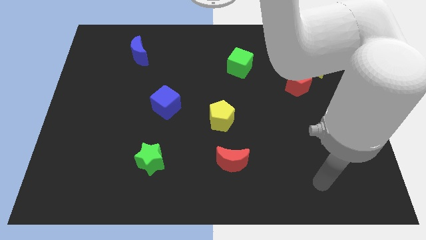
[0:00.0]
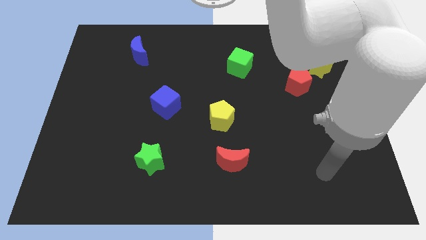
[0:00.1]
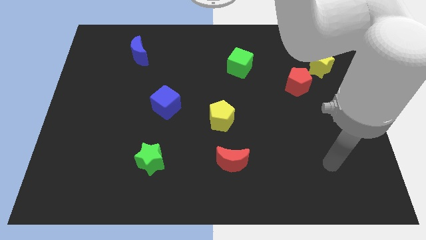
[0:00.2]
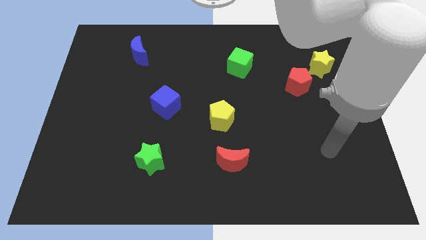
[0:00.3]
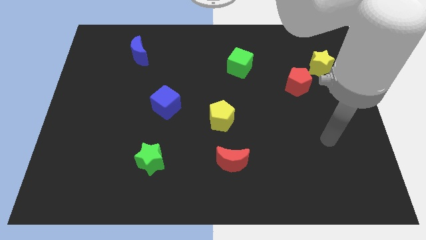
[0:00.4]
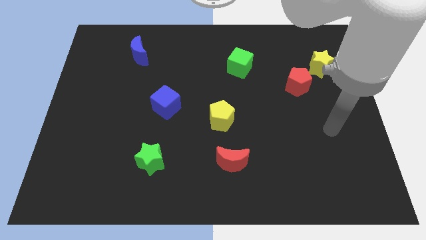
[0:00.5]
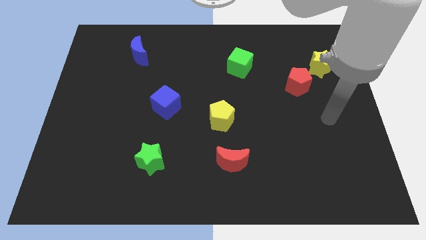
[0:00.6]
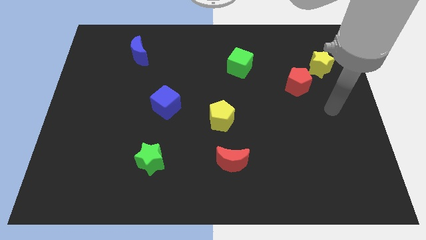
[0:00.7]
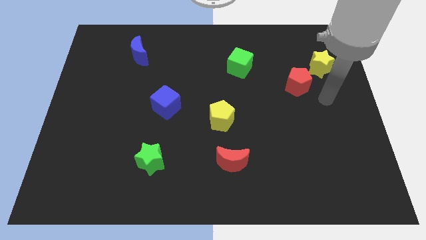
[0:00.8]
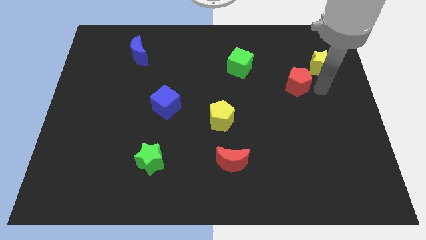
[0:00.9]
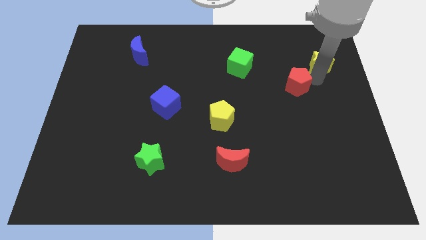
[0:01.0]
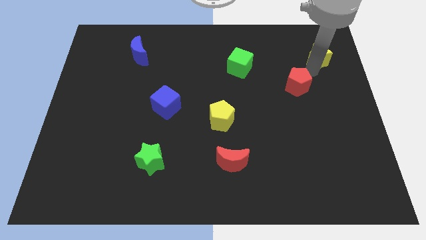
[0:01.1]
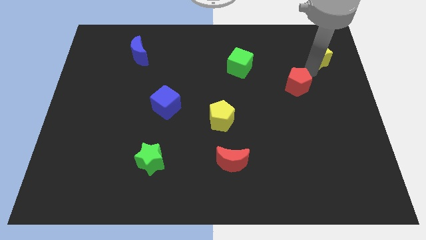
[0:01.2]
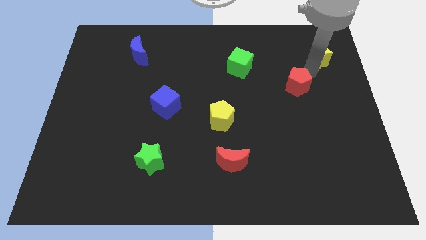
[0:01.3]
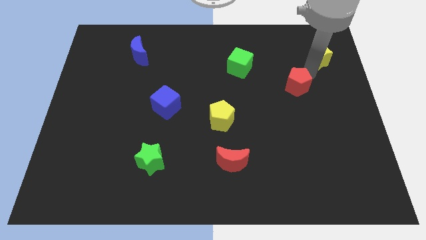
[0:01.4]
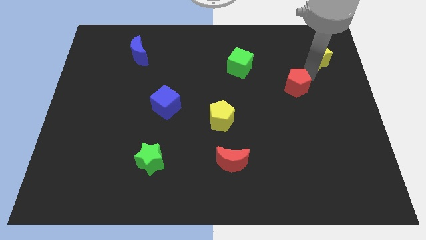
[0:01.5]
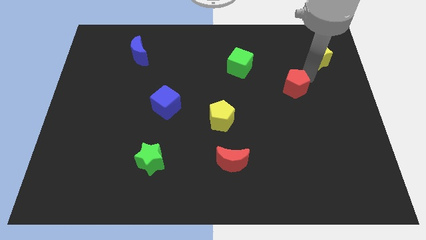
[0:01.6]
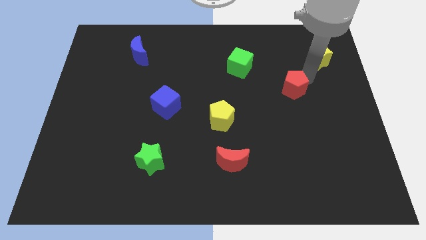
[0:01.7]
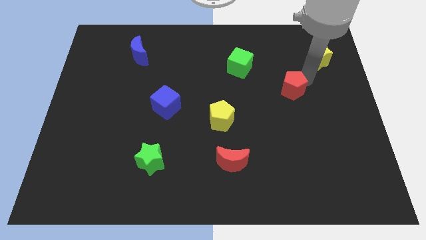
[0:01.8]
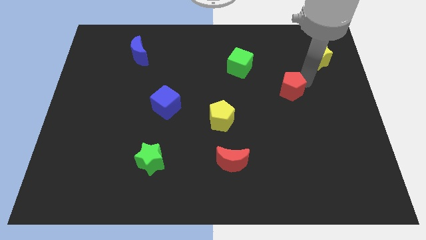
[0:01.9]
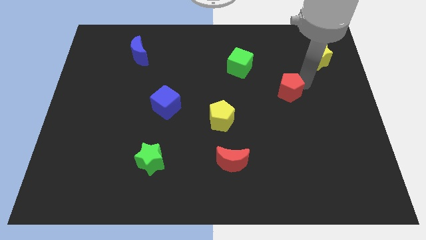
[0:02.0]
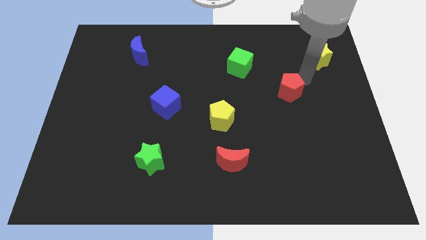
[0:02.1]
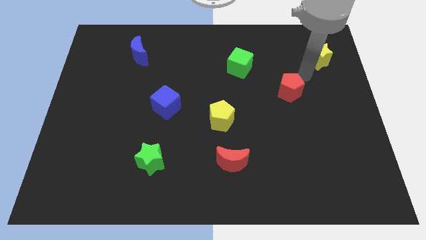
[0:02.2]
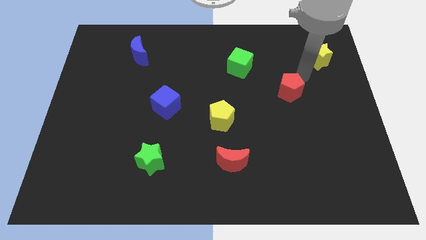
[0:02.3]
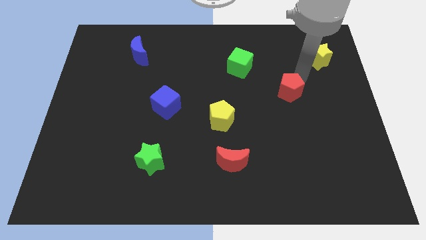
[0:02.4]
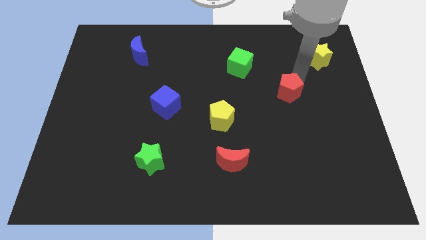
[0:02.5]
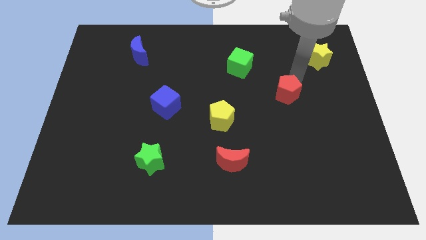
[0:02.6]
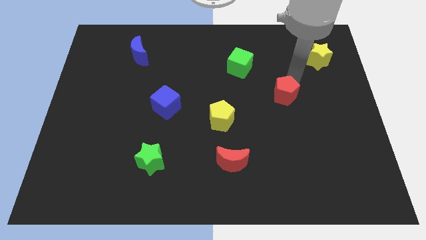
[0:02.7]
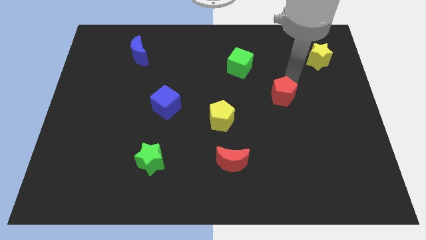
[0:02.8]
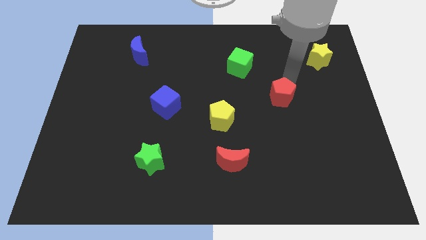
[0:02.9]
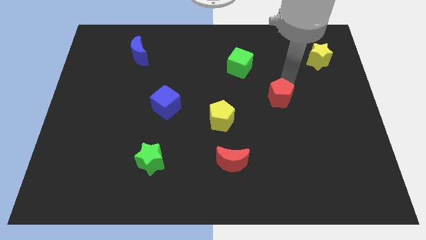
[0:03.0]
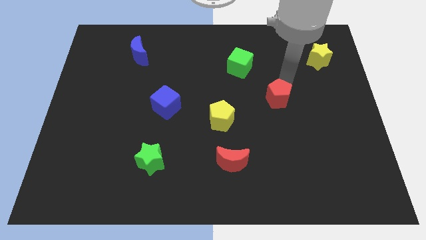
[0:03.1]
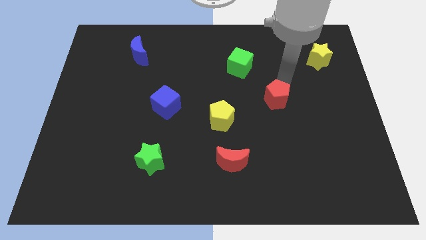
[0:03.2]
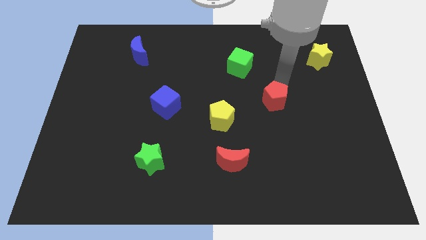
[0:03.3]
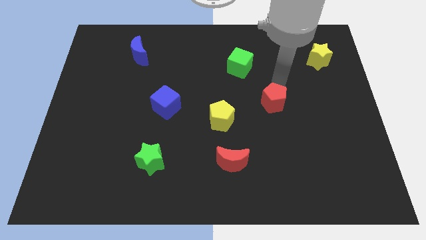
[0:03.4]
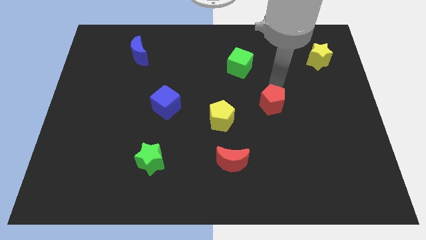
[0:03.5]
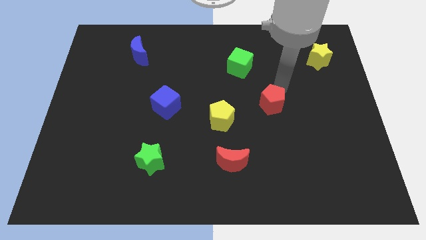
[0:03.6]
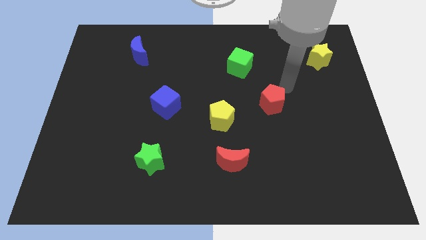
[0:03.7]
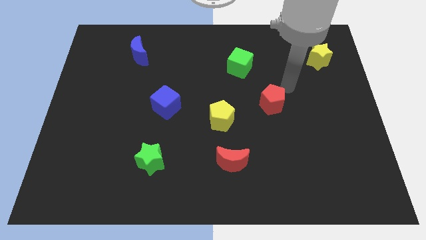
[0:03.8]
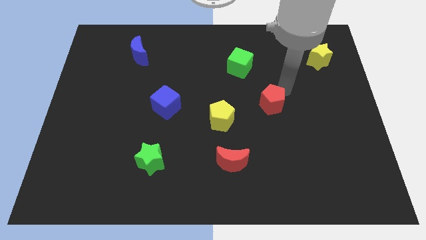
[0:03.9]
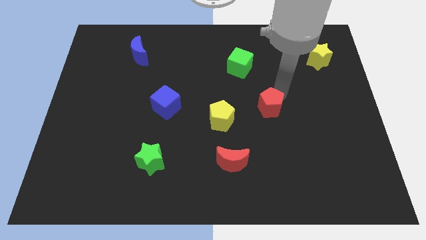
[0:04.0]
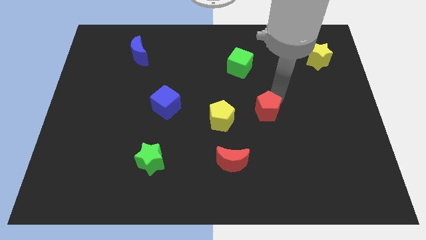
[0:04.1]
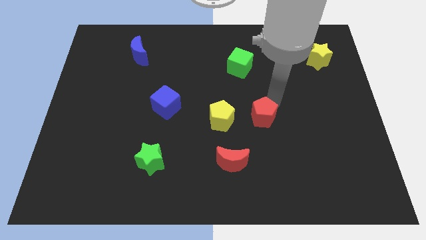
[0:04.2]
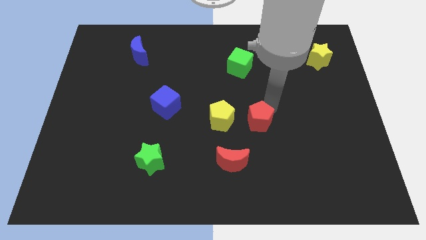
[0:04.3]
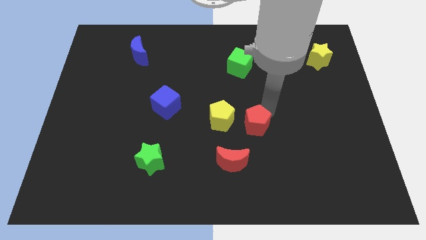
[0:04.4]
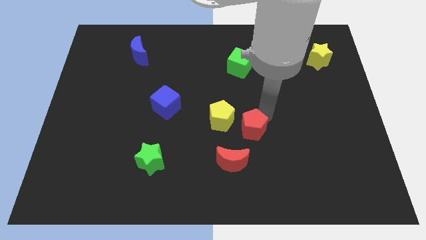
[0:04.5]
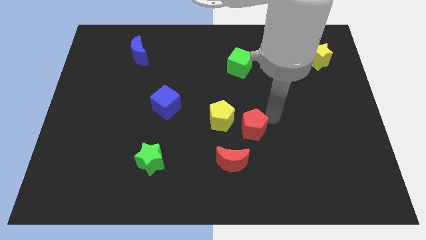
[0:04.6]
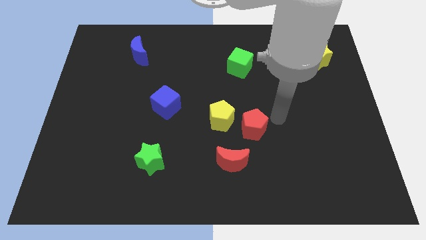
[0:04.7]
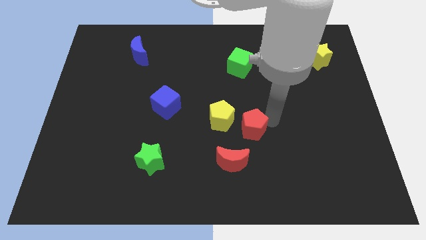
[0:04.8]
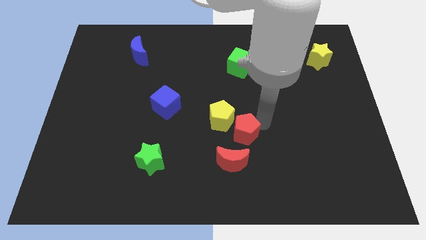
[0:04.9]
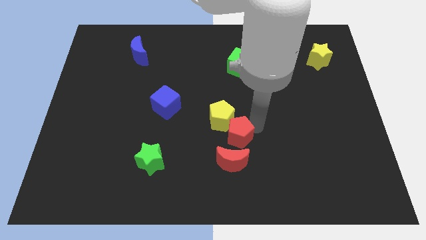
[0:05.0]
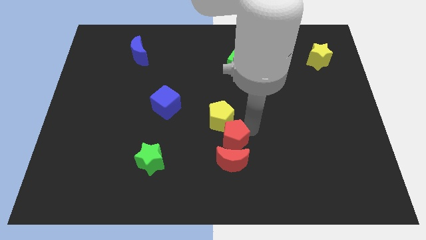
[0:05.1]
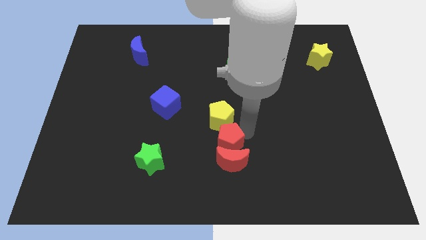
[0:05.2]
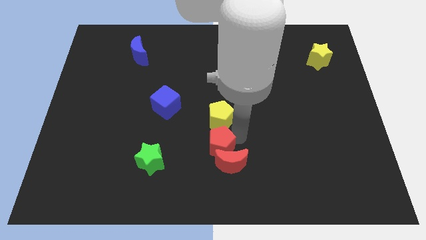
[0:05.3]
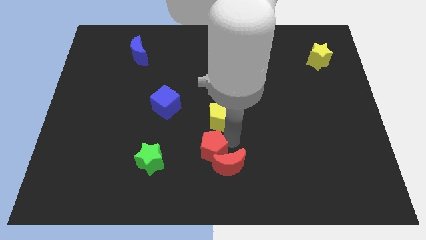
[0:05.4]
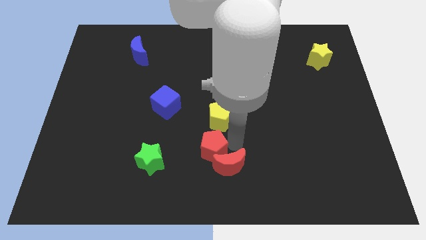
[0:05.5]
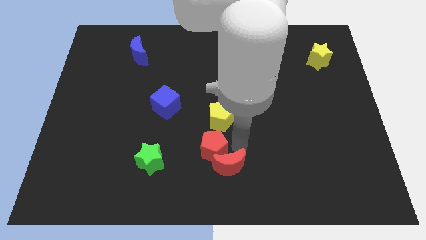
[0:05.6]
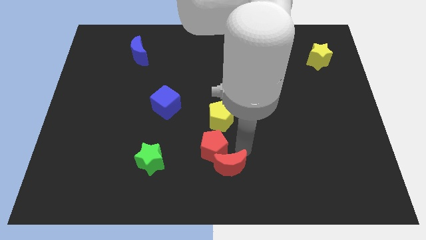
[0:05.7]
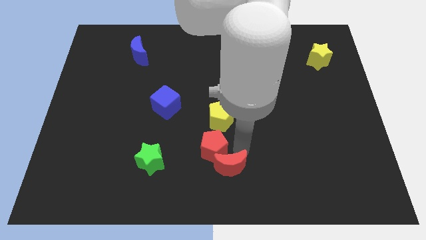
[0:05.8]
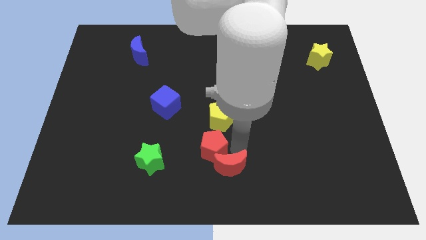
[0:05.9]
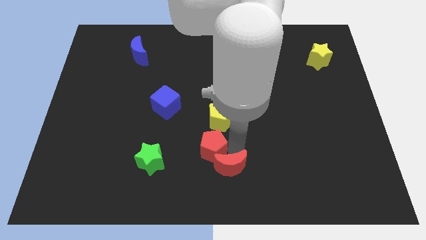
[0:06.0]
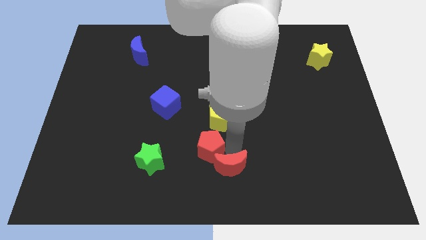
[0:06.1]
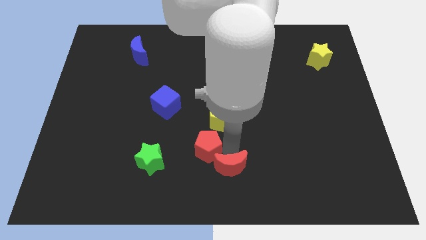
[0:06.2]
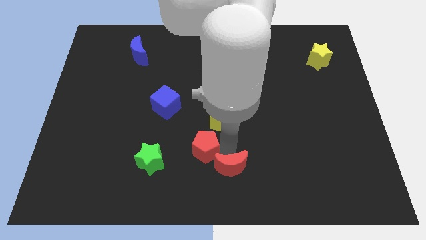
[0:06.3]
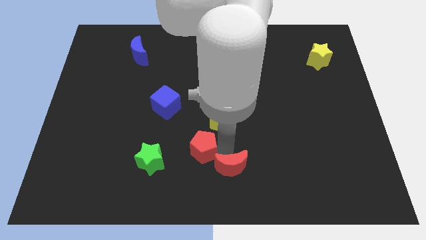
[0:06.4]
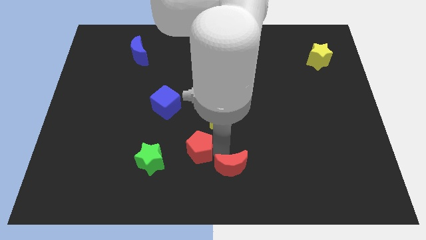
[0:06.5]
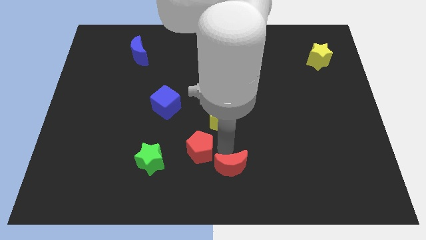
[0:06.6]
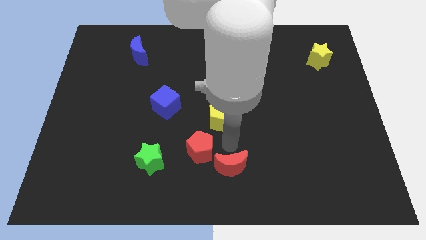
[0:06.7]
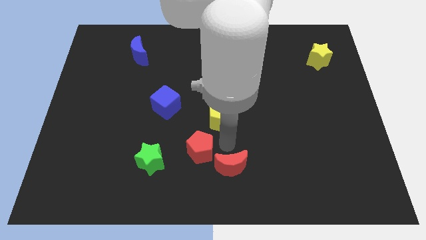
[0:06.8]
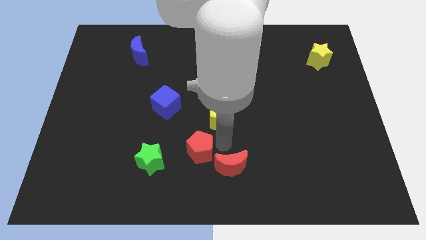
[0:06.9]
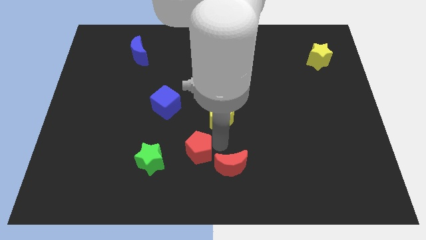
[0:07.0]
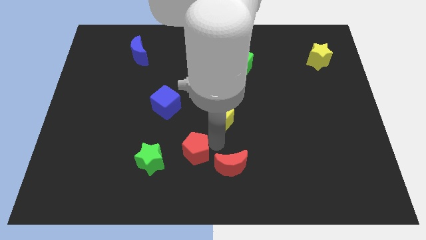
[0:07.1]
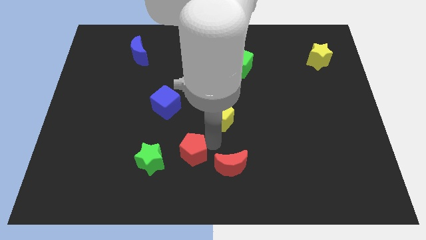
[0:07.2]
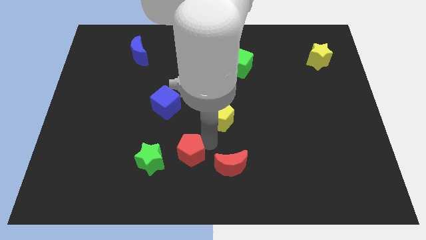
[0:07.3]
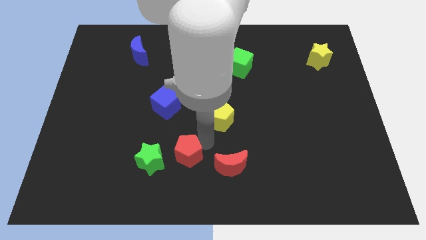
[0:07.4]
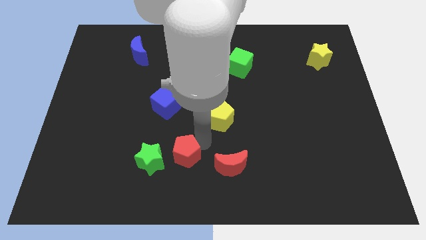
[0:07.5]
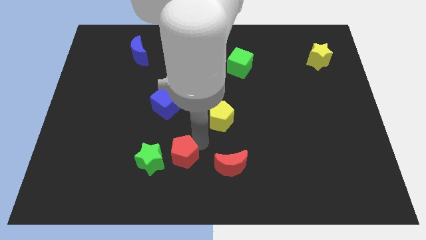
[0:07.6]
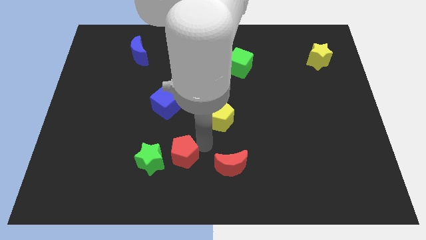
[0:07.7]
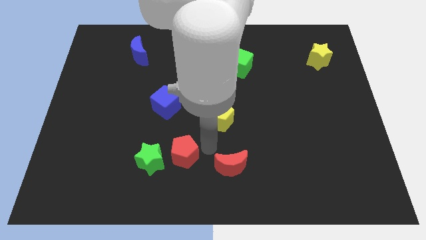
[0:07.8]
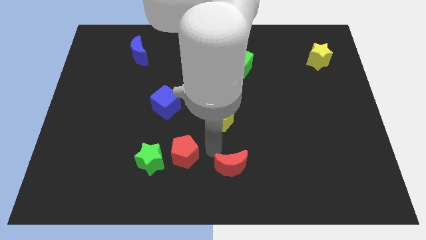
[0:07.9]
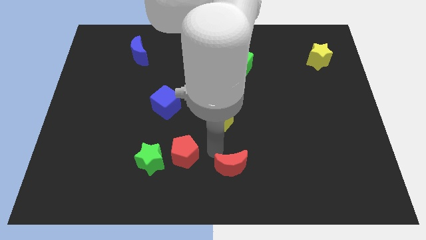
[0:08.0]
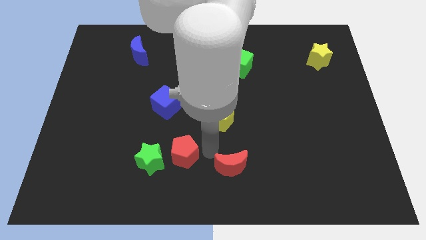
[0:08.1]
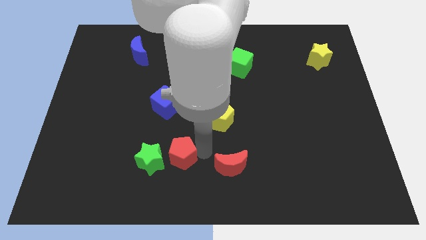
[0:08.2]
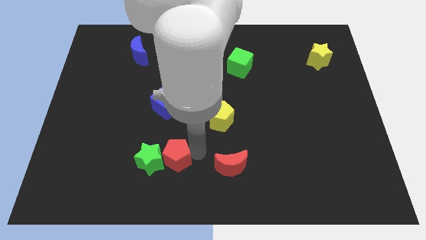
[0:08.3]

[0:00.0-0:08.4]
put the red pentagon towards the green star
